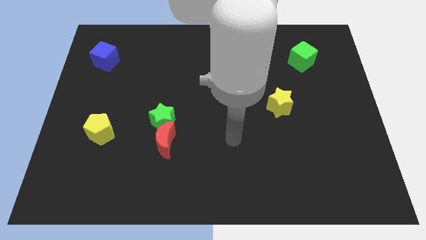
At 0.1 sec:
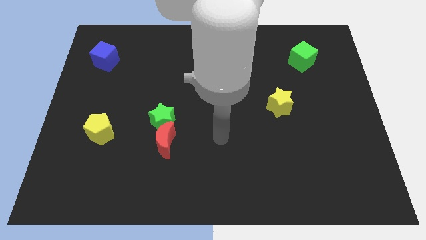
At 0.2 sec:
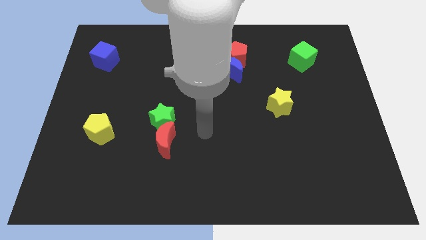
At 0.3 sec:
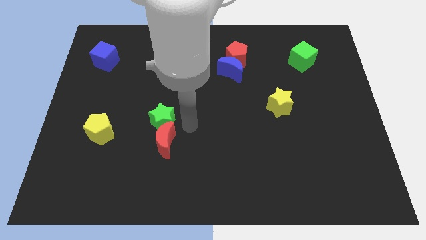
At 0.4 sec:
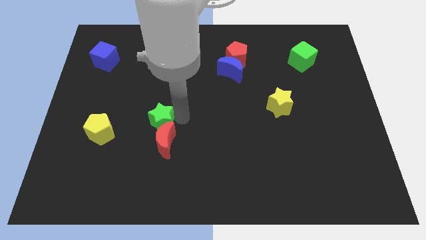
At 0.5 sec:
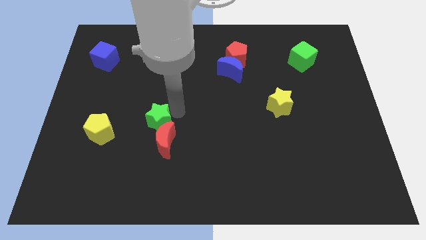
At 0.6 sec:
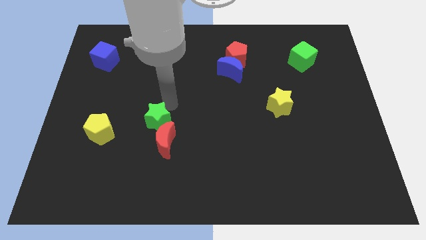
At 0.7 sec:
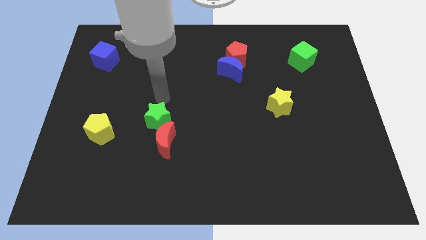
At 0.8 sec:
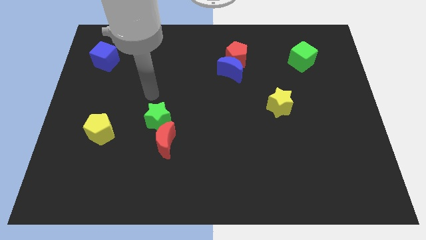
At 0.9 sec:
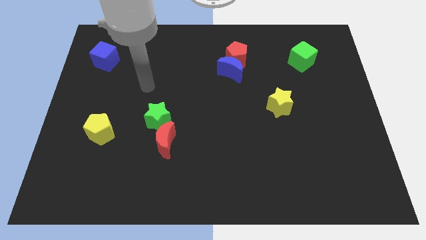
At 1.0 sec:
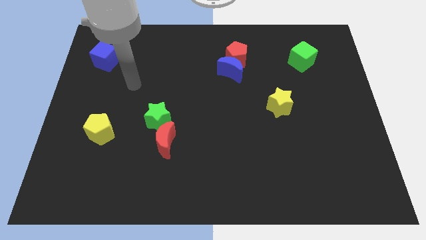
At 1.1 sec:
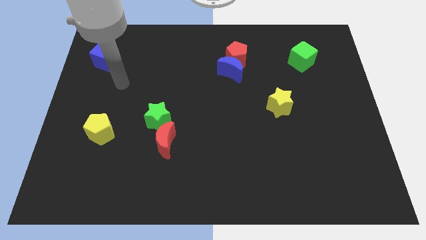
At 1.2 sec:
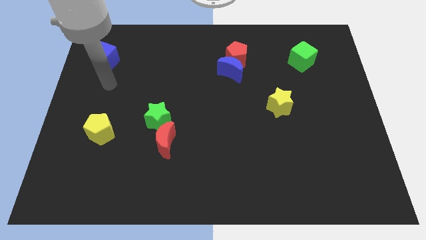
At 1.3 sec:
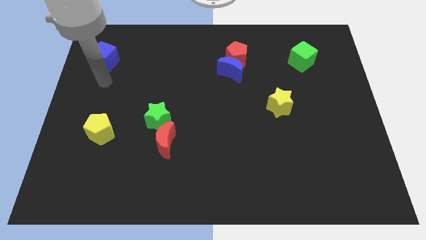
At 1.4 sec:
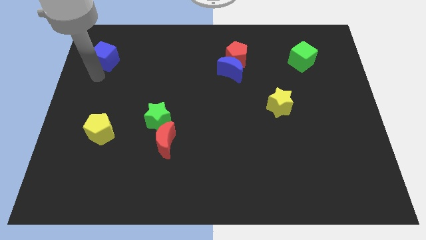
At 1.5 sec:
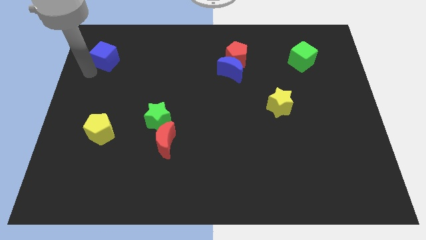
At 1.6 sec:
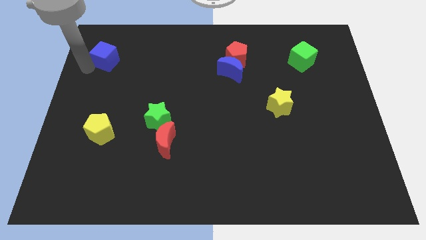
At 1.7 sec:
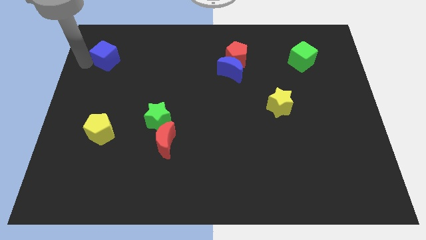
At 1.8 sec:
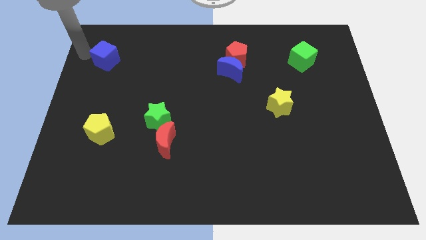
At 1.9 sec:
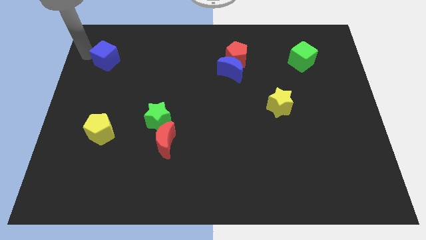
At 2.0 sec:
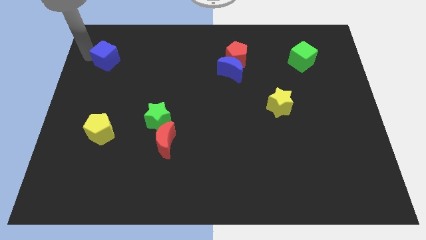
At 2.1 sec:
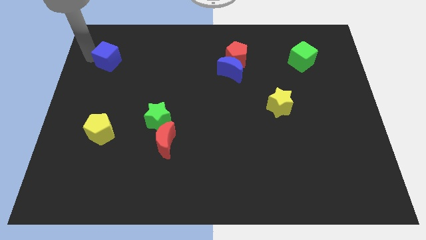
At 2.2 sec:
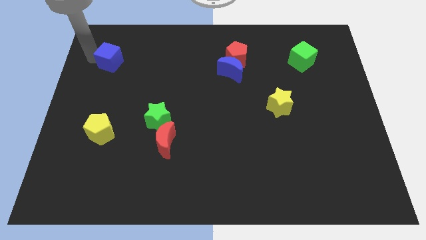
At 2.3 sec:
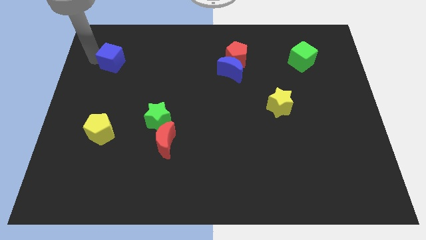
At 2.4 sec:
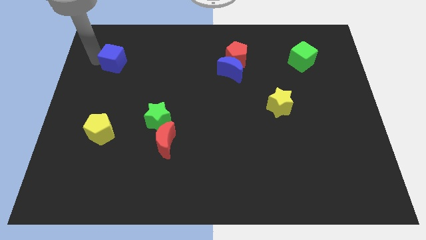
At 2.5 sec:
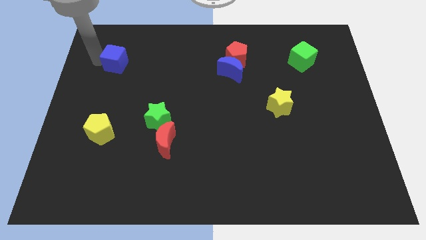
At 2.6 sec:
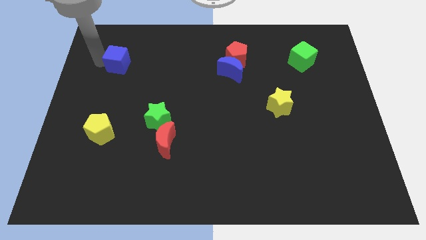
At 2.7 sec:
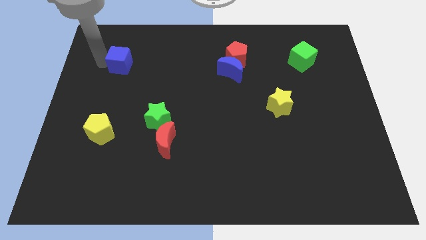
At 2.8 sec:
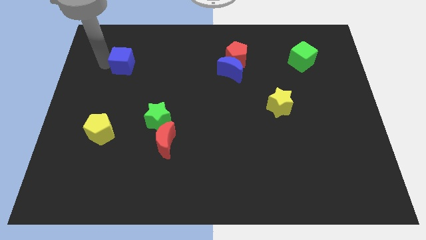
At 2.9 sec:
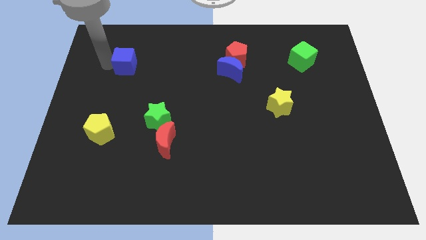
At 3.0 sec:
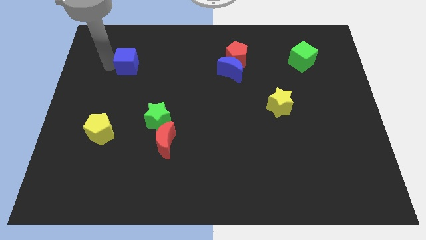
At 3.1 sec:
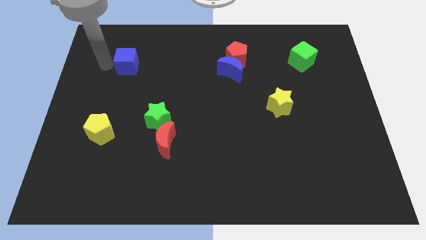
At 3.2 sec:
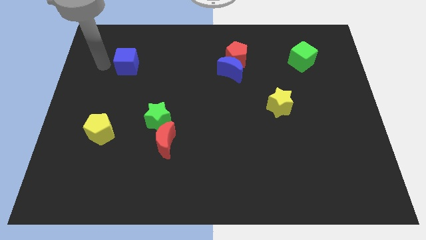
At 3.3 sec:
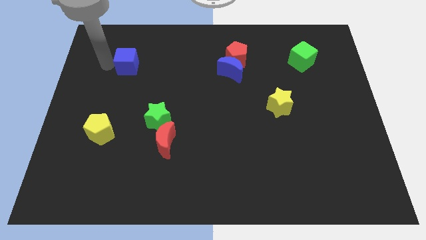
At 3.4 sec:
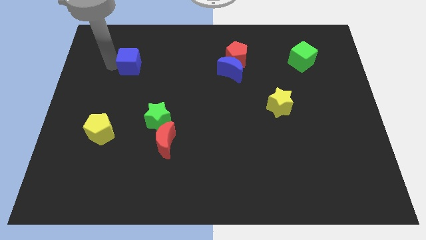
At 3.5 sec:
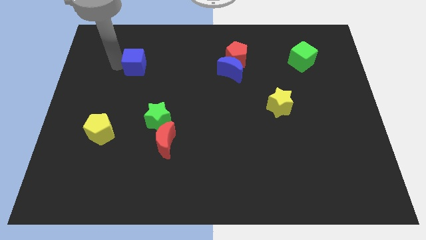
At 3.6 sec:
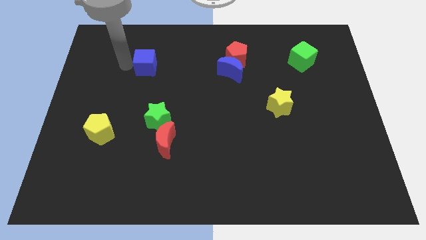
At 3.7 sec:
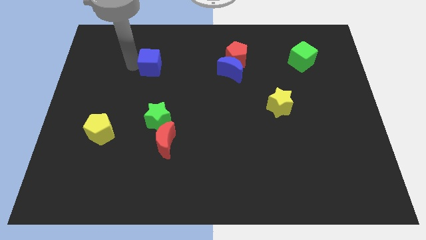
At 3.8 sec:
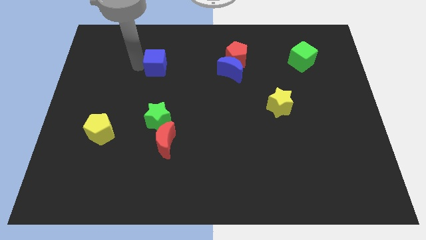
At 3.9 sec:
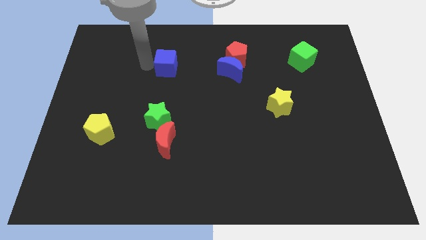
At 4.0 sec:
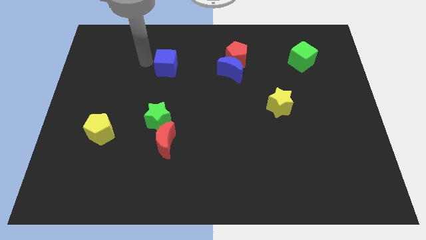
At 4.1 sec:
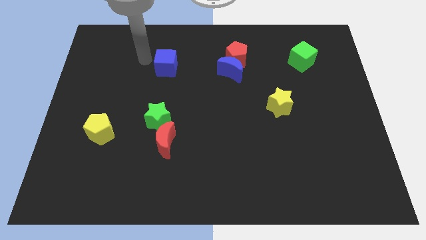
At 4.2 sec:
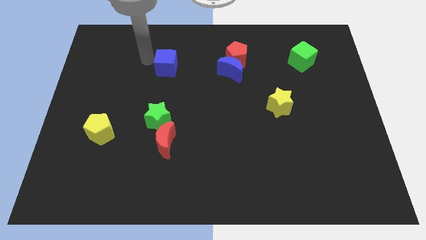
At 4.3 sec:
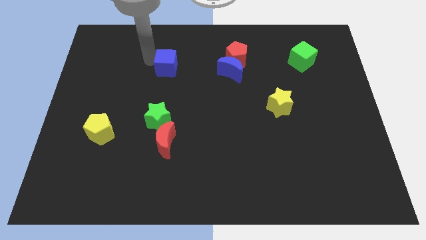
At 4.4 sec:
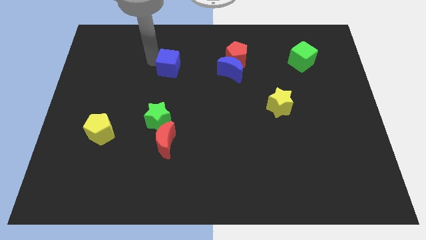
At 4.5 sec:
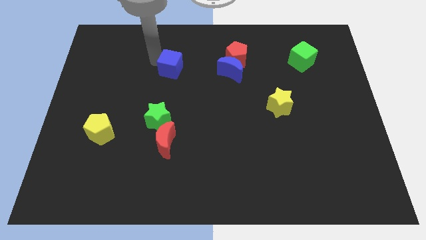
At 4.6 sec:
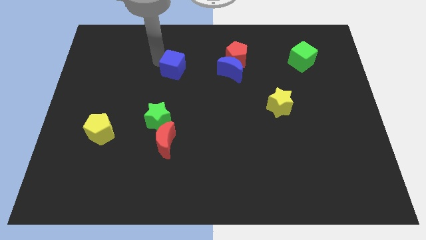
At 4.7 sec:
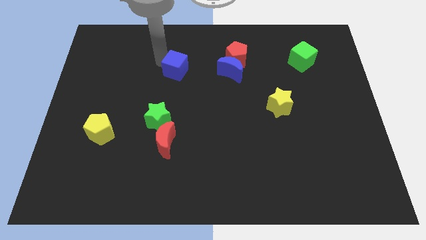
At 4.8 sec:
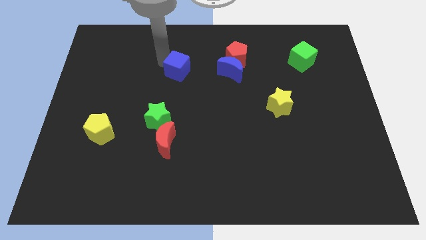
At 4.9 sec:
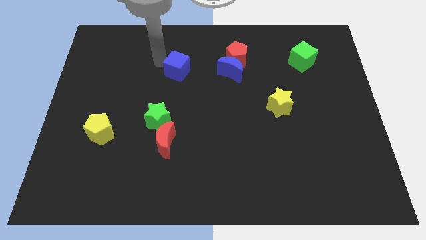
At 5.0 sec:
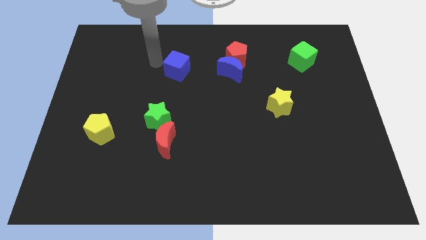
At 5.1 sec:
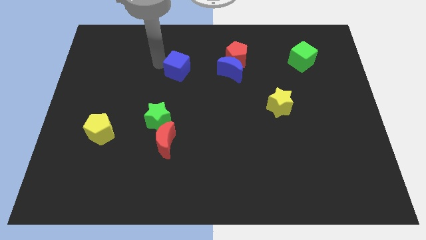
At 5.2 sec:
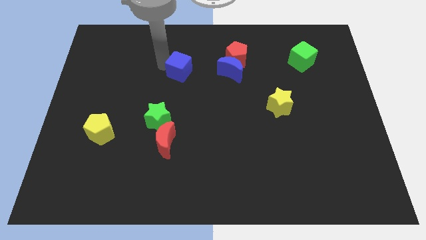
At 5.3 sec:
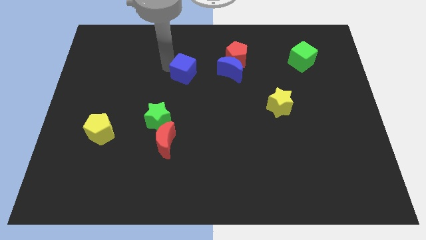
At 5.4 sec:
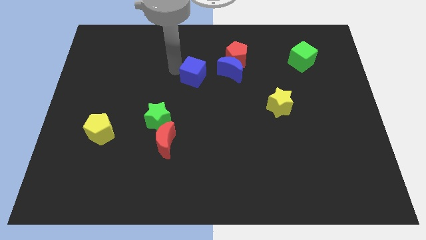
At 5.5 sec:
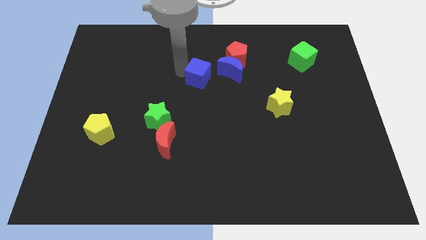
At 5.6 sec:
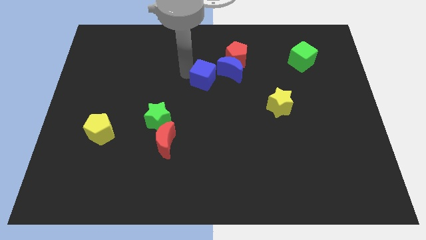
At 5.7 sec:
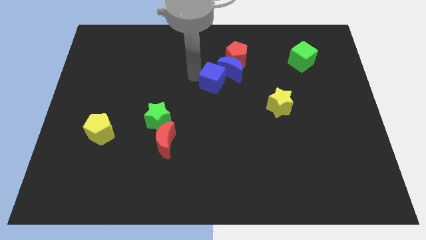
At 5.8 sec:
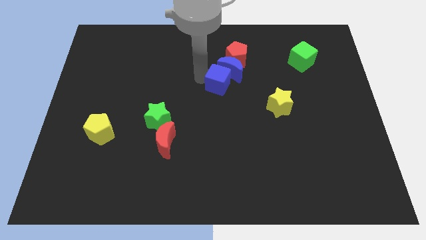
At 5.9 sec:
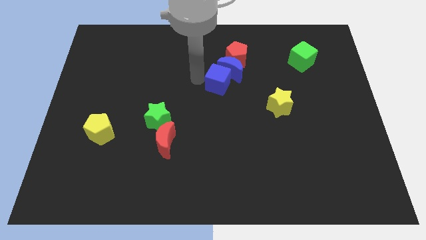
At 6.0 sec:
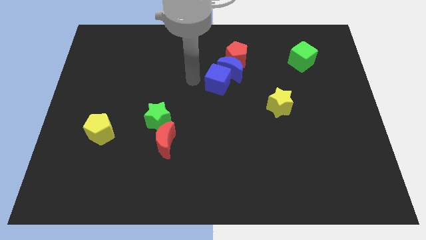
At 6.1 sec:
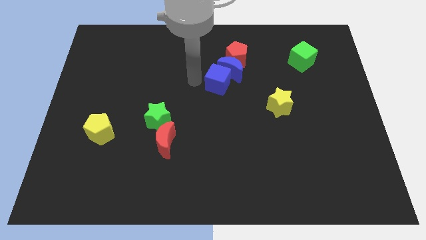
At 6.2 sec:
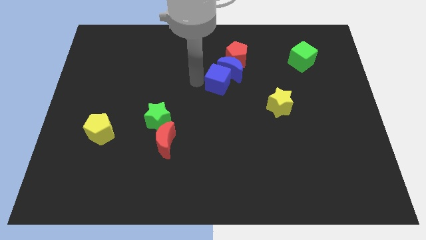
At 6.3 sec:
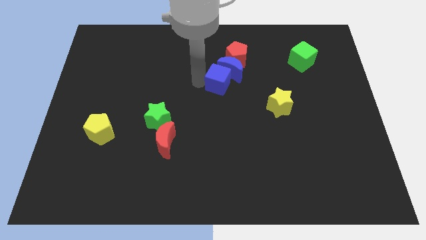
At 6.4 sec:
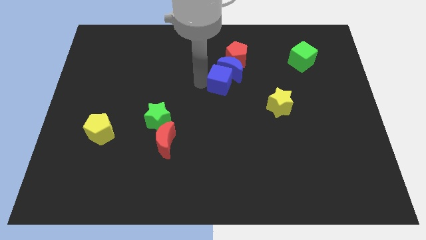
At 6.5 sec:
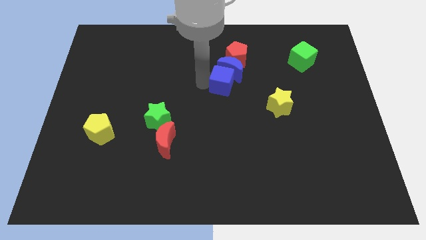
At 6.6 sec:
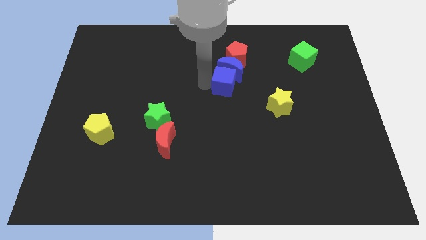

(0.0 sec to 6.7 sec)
put the blue cube to the bottom right side of the blue moon

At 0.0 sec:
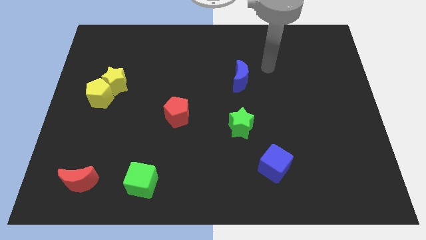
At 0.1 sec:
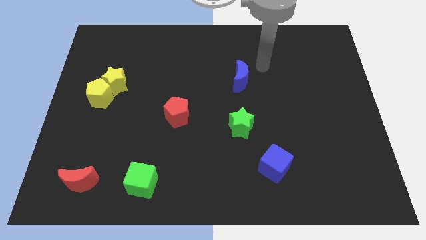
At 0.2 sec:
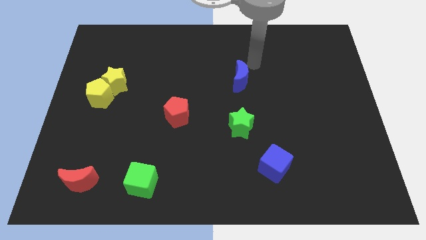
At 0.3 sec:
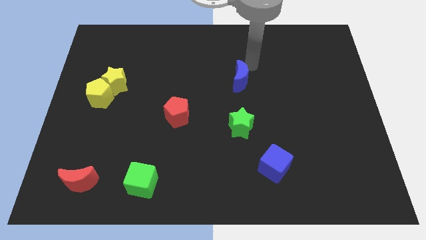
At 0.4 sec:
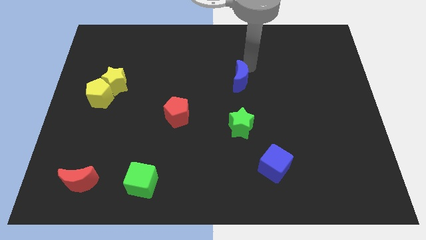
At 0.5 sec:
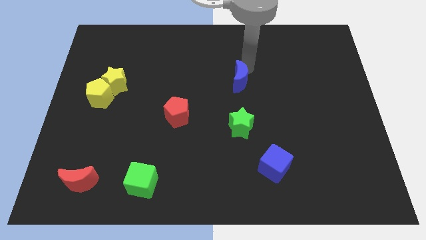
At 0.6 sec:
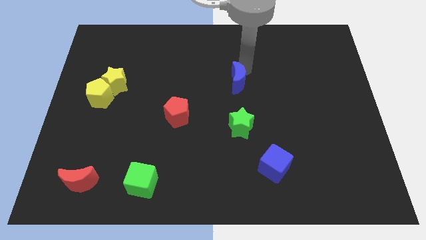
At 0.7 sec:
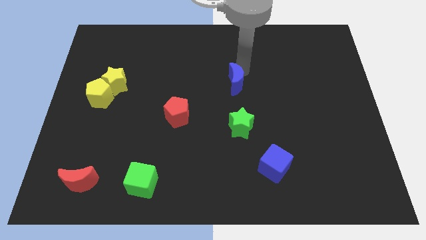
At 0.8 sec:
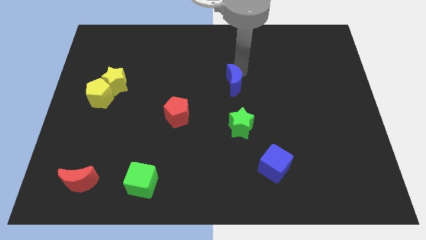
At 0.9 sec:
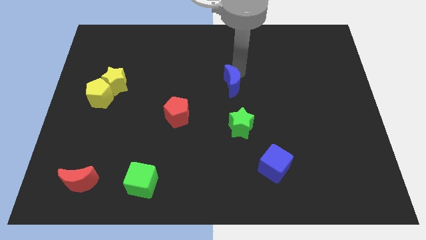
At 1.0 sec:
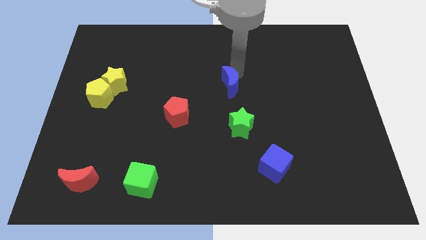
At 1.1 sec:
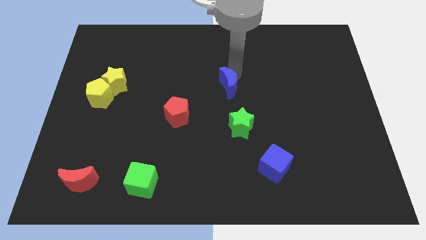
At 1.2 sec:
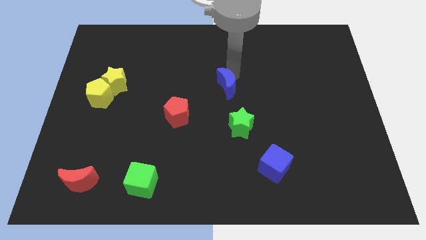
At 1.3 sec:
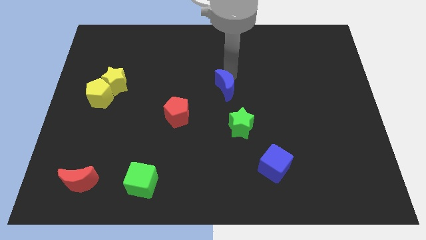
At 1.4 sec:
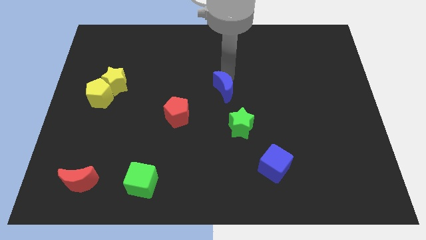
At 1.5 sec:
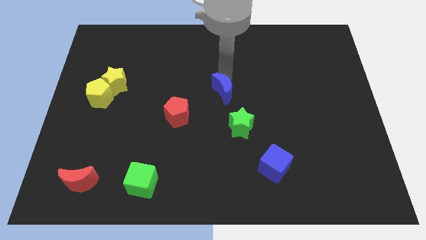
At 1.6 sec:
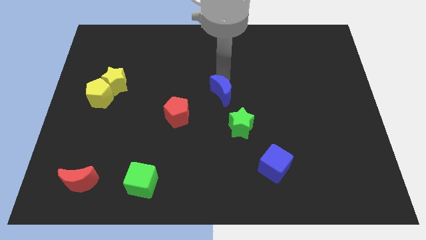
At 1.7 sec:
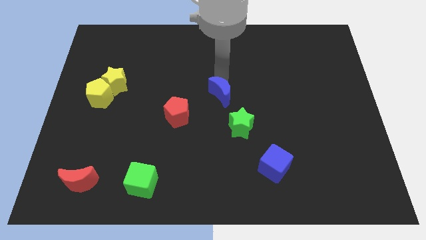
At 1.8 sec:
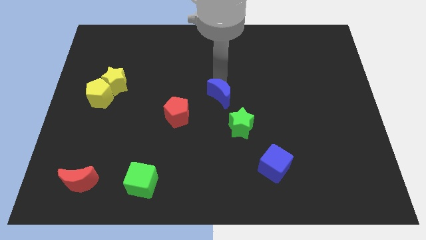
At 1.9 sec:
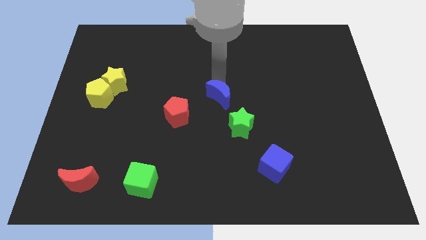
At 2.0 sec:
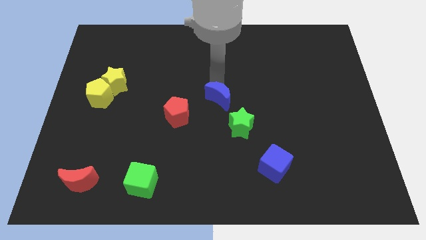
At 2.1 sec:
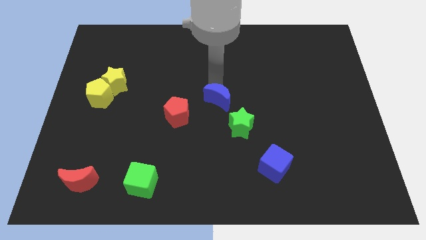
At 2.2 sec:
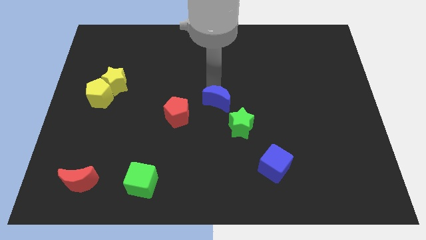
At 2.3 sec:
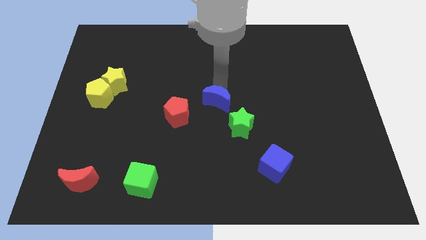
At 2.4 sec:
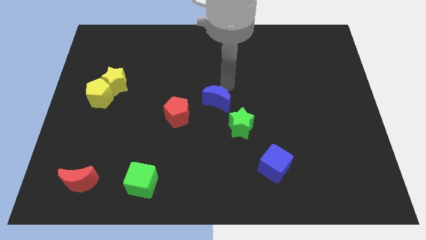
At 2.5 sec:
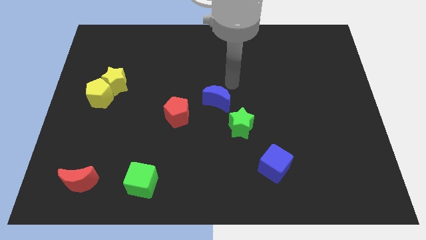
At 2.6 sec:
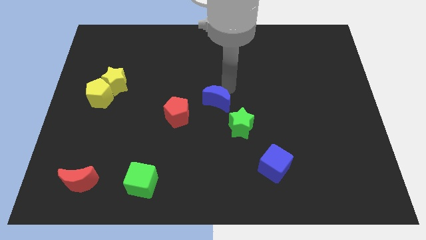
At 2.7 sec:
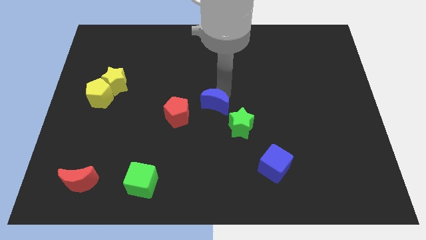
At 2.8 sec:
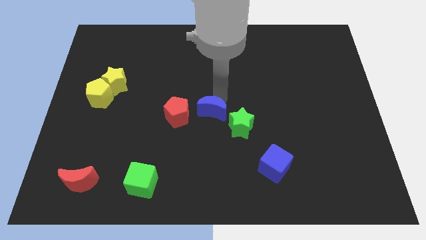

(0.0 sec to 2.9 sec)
slide the blue moon left of the green star
